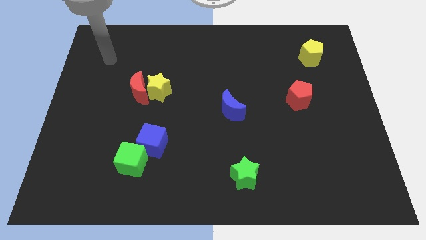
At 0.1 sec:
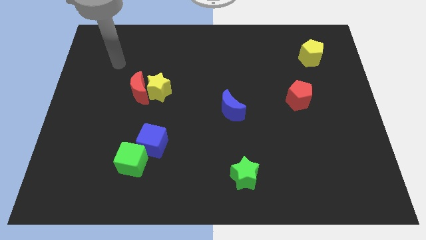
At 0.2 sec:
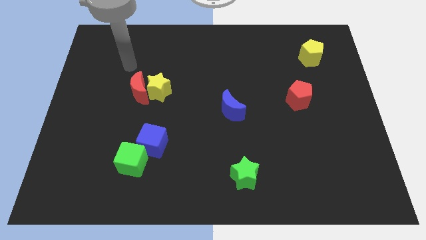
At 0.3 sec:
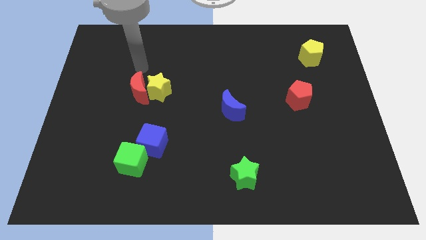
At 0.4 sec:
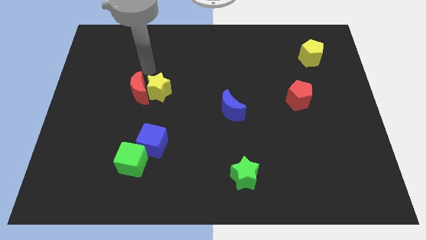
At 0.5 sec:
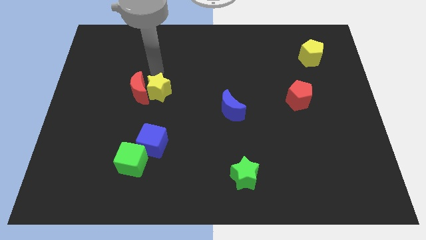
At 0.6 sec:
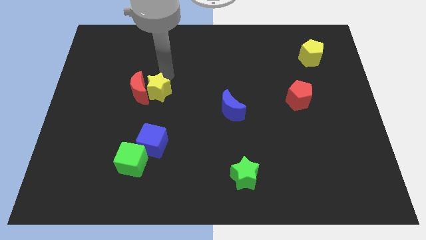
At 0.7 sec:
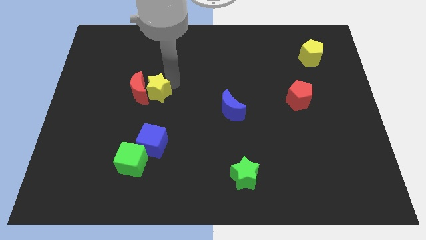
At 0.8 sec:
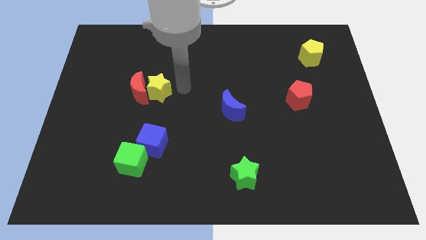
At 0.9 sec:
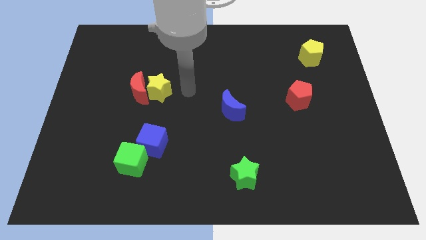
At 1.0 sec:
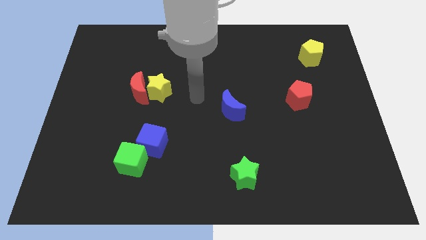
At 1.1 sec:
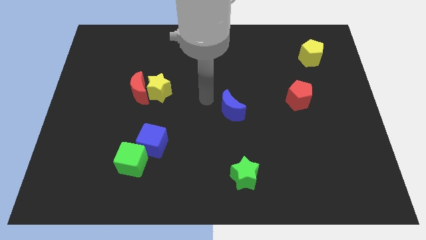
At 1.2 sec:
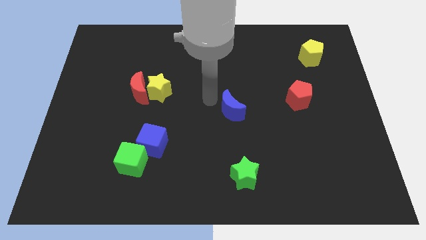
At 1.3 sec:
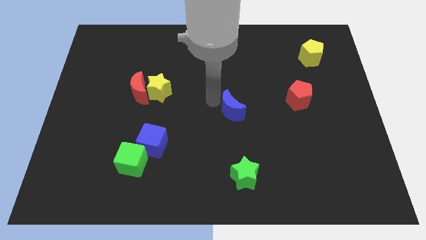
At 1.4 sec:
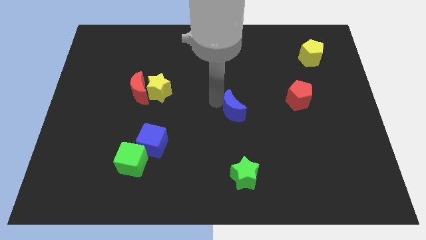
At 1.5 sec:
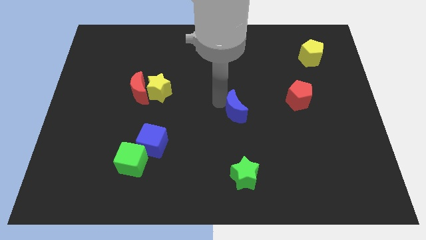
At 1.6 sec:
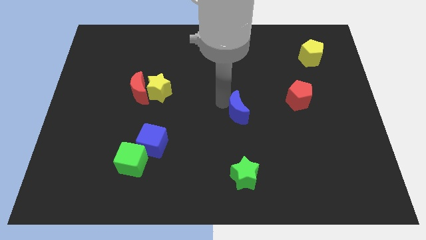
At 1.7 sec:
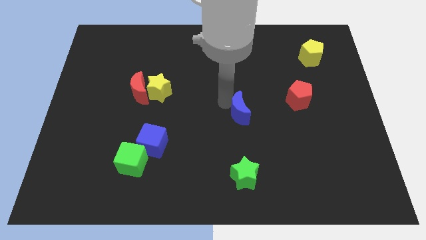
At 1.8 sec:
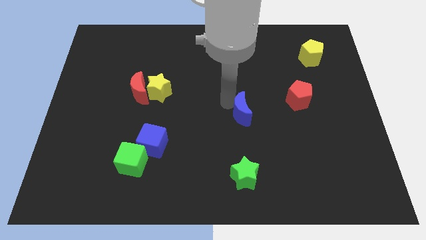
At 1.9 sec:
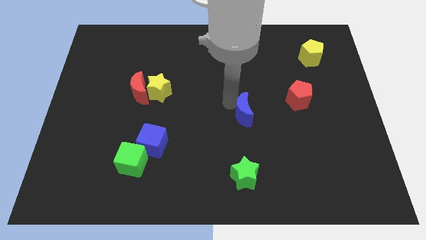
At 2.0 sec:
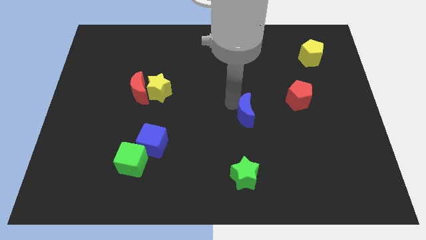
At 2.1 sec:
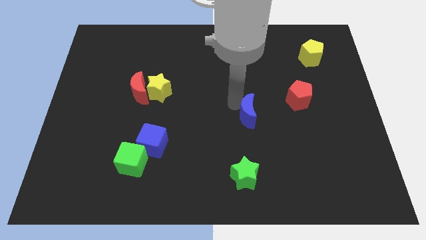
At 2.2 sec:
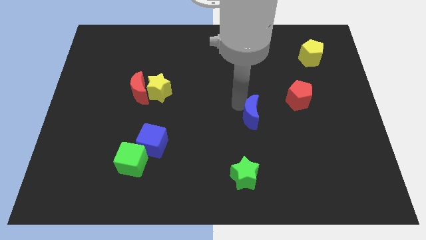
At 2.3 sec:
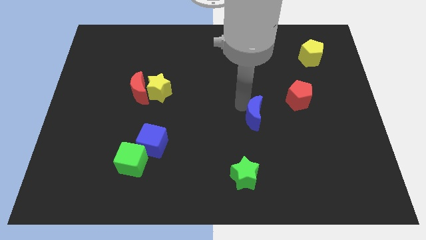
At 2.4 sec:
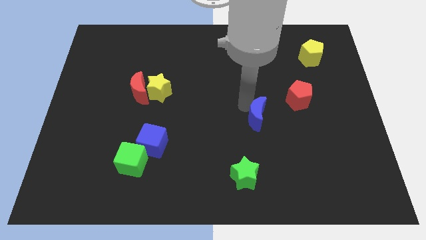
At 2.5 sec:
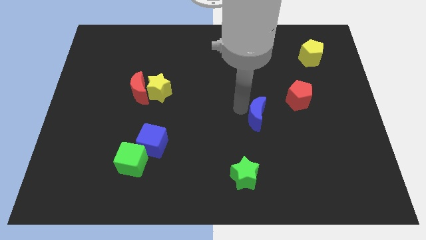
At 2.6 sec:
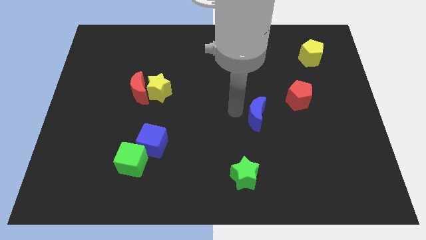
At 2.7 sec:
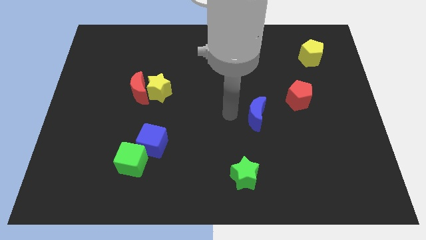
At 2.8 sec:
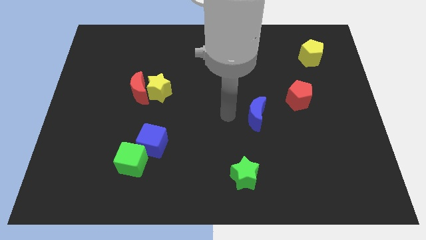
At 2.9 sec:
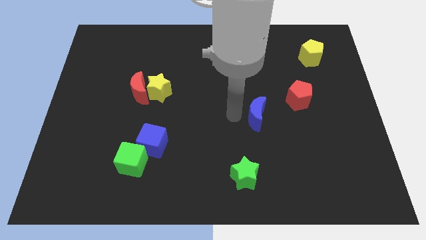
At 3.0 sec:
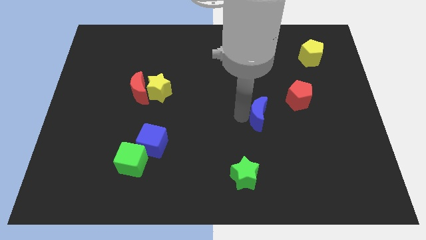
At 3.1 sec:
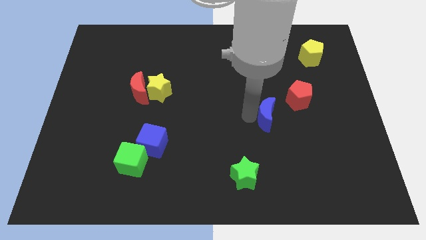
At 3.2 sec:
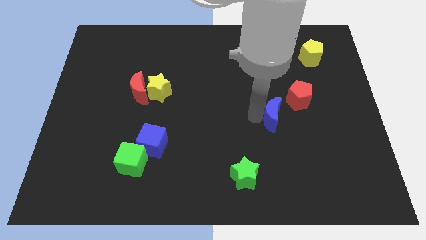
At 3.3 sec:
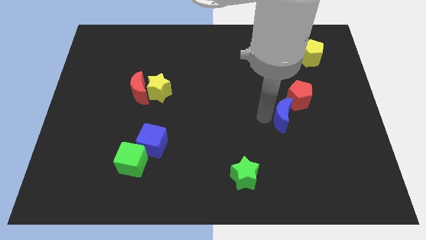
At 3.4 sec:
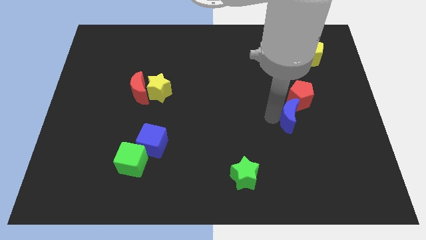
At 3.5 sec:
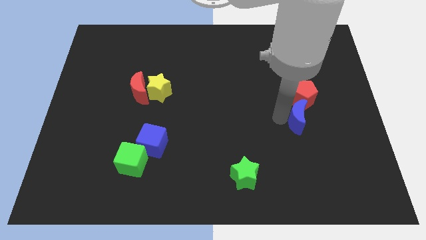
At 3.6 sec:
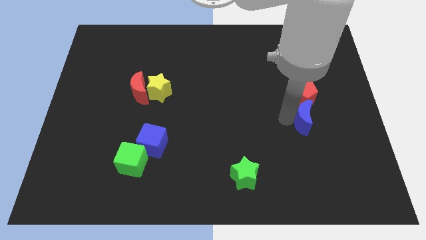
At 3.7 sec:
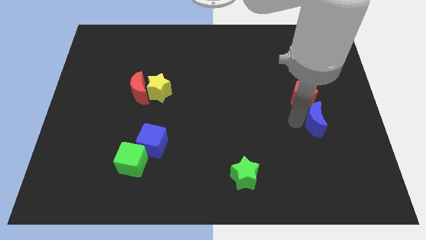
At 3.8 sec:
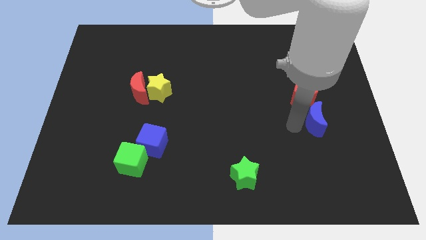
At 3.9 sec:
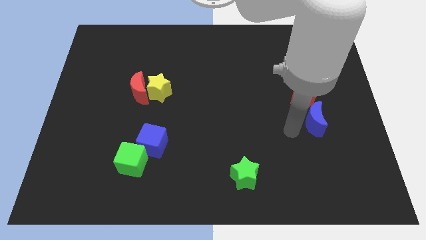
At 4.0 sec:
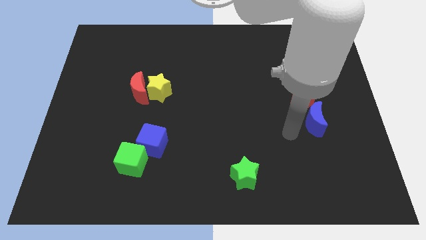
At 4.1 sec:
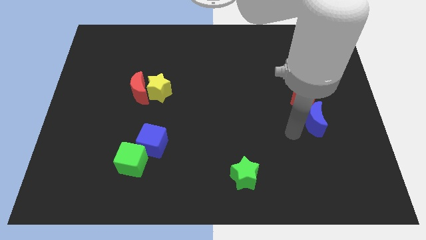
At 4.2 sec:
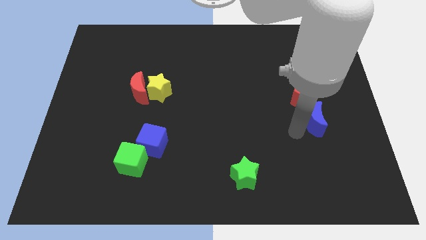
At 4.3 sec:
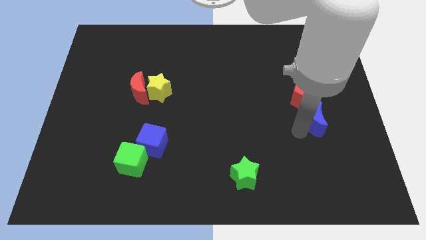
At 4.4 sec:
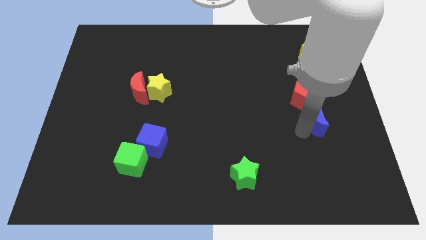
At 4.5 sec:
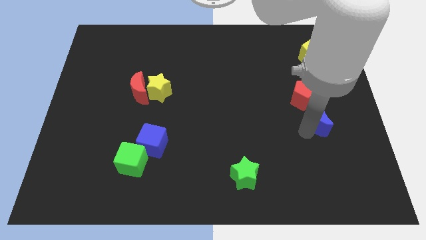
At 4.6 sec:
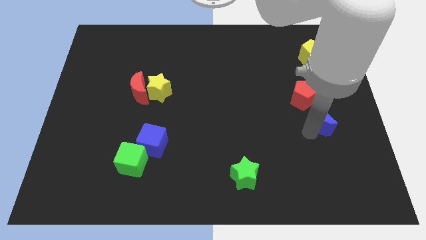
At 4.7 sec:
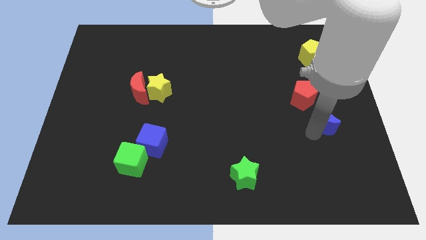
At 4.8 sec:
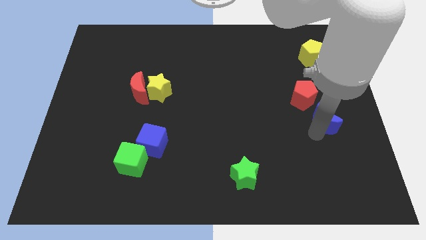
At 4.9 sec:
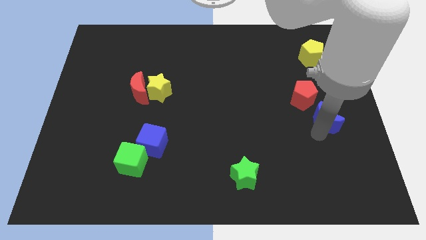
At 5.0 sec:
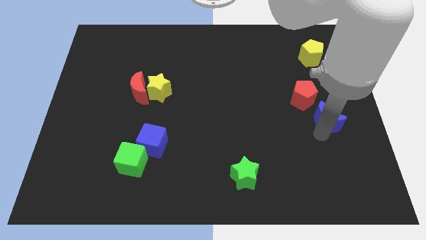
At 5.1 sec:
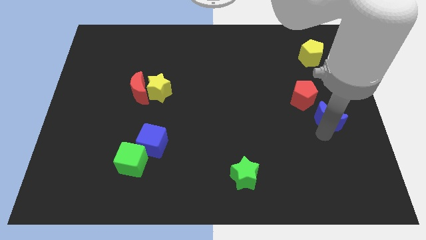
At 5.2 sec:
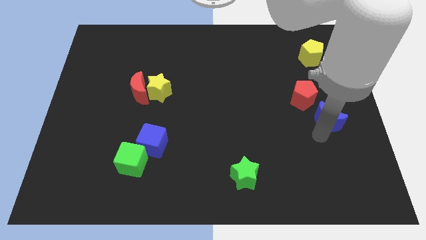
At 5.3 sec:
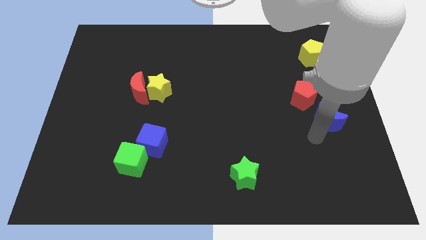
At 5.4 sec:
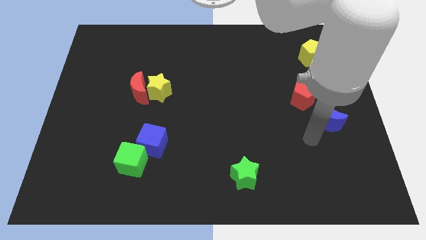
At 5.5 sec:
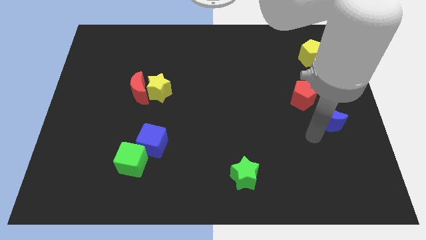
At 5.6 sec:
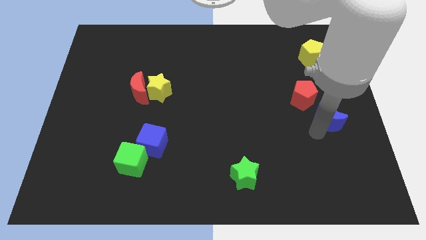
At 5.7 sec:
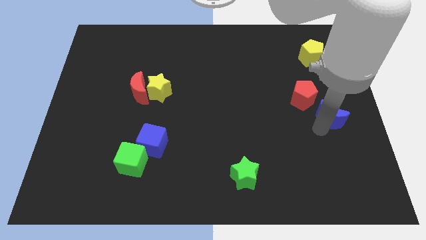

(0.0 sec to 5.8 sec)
slide the blue moon to the center right
